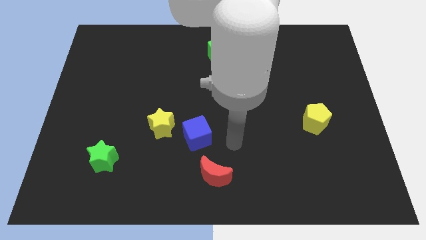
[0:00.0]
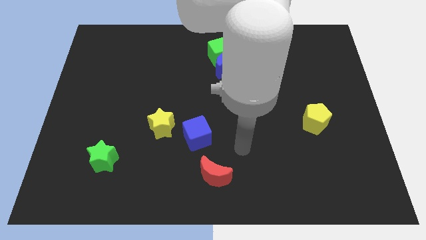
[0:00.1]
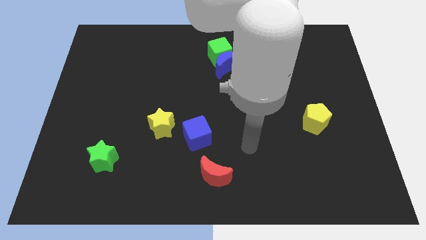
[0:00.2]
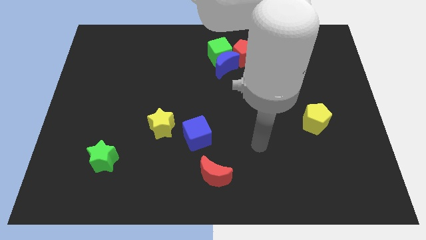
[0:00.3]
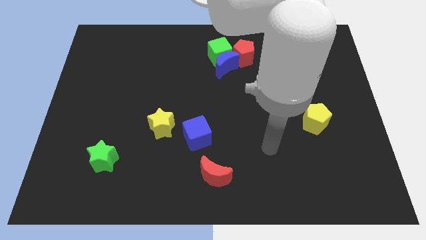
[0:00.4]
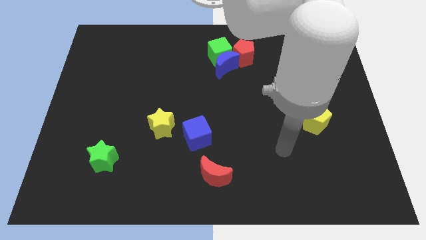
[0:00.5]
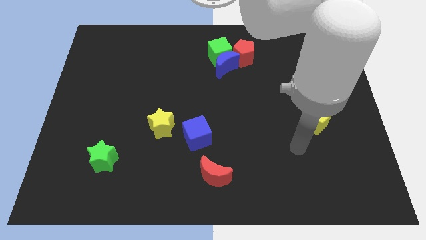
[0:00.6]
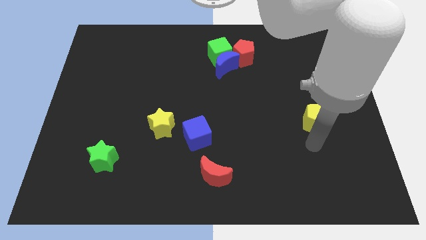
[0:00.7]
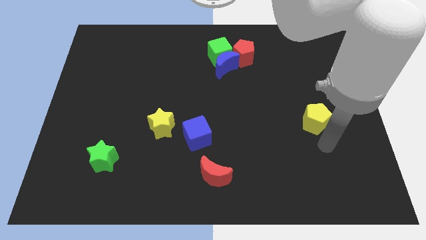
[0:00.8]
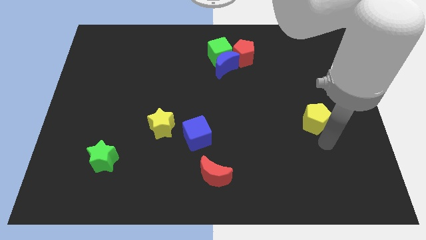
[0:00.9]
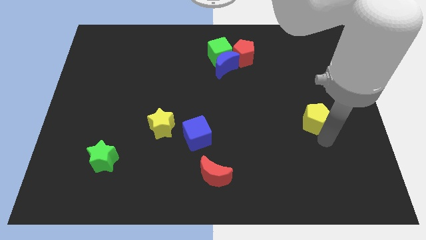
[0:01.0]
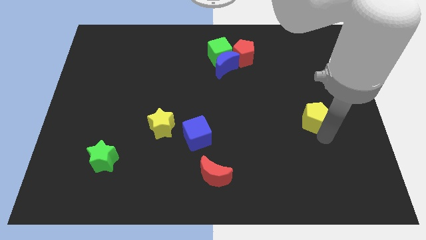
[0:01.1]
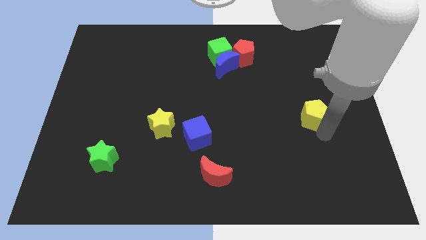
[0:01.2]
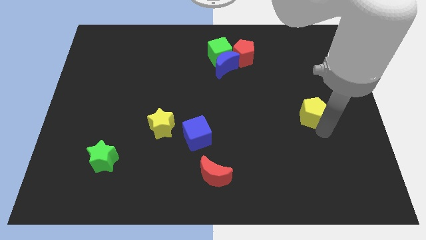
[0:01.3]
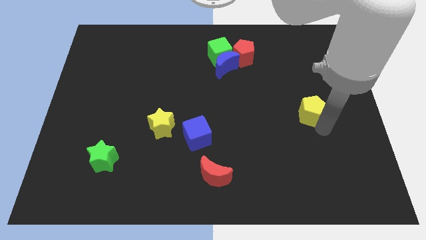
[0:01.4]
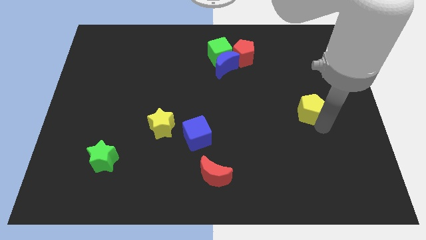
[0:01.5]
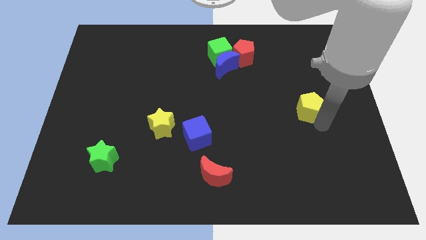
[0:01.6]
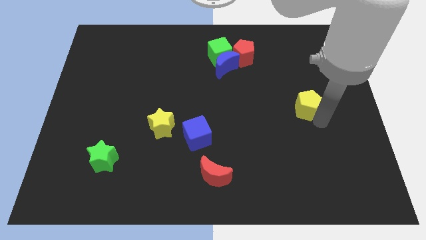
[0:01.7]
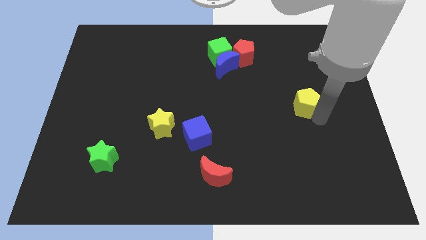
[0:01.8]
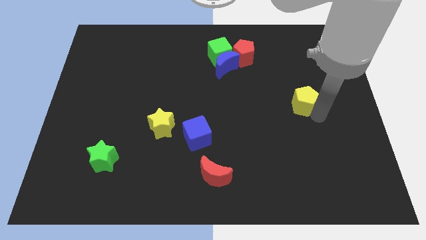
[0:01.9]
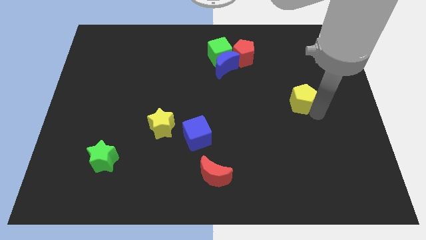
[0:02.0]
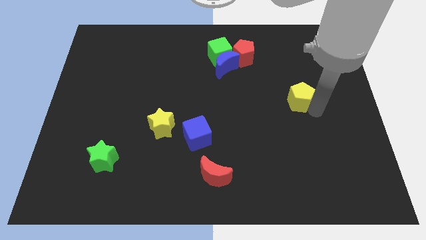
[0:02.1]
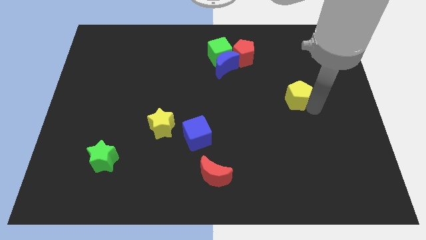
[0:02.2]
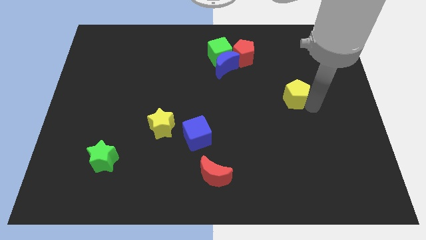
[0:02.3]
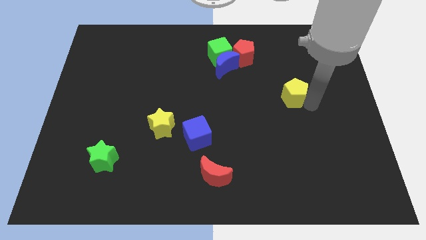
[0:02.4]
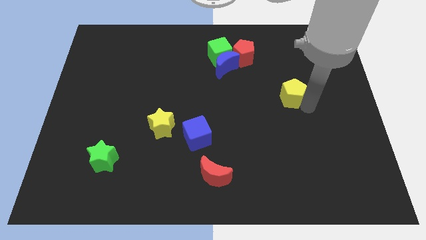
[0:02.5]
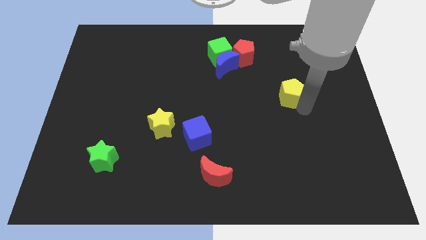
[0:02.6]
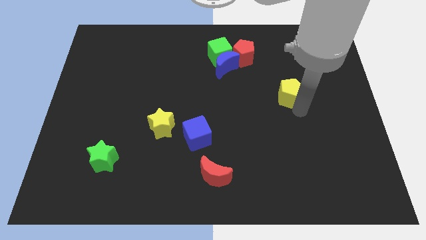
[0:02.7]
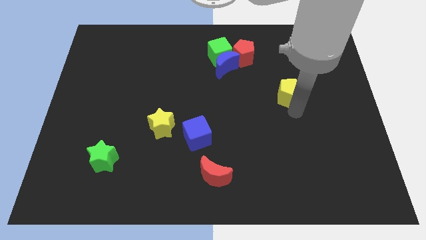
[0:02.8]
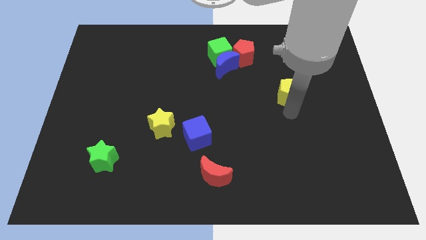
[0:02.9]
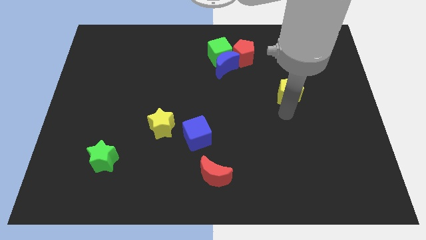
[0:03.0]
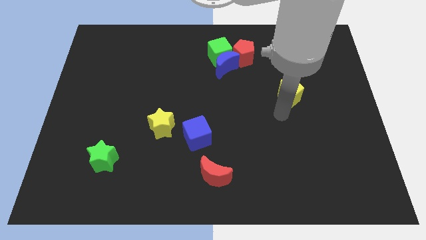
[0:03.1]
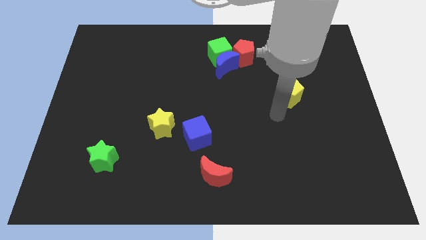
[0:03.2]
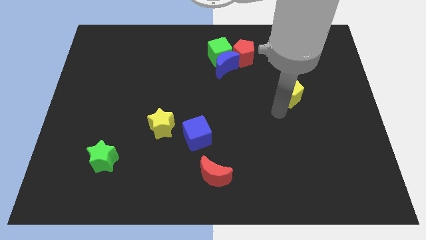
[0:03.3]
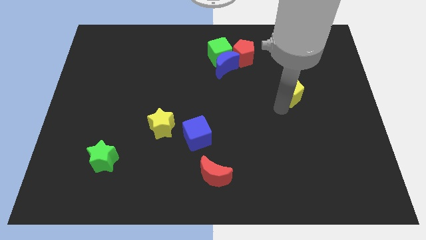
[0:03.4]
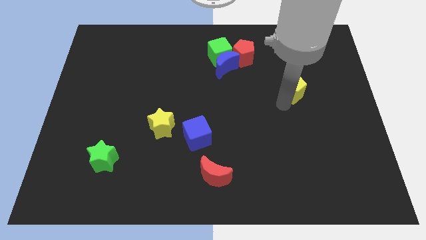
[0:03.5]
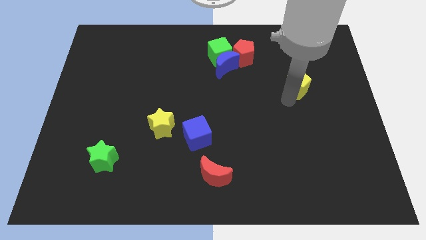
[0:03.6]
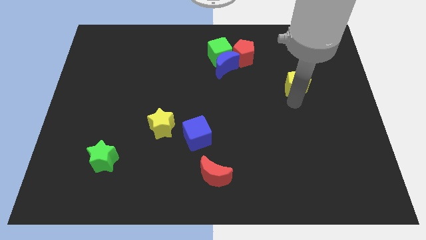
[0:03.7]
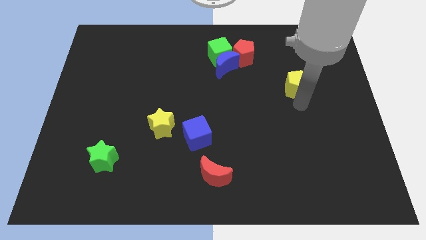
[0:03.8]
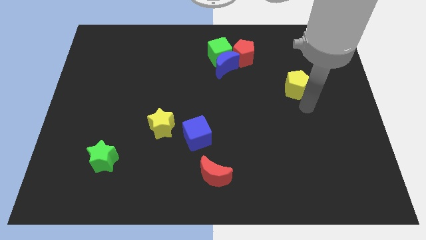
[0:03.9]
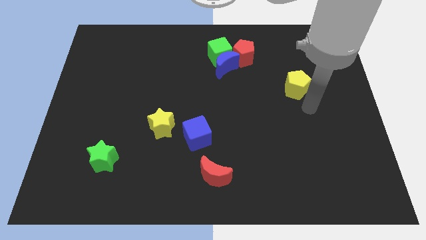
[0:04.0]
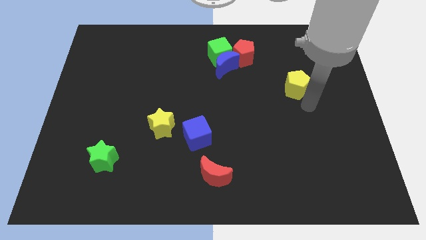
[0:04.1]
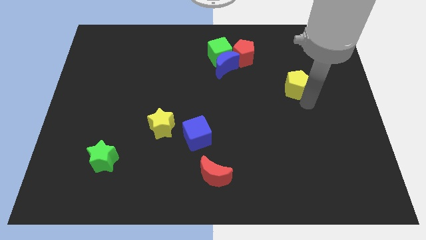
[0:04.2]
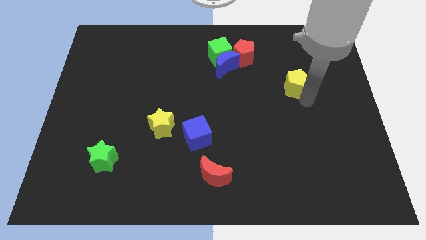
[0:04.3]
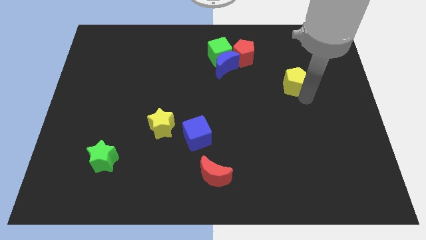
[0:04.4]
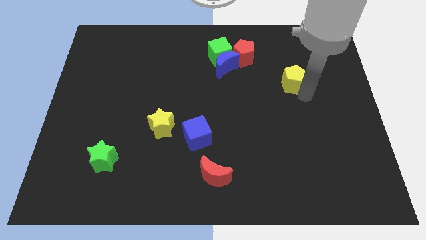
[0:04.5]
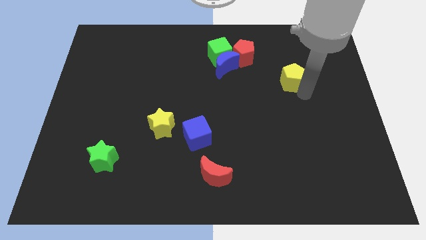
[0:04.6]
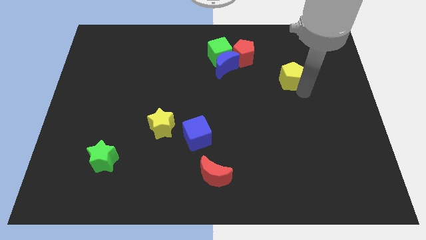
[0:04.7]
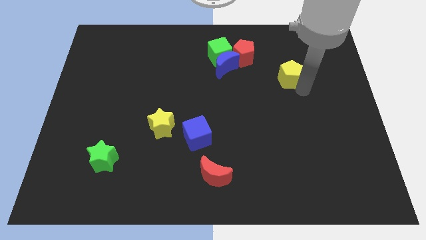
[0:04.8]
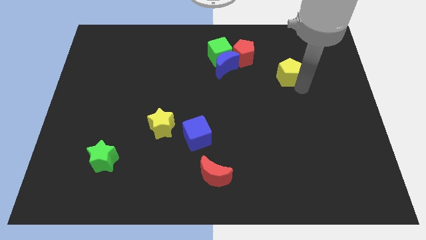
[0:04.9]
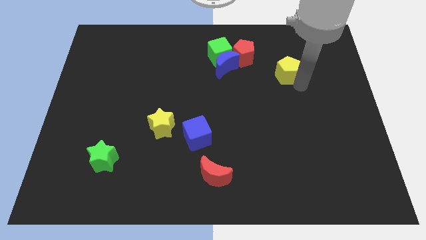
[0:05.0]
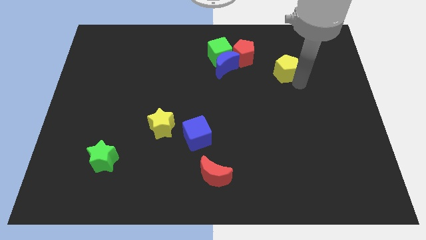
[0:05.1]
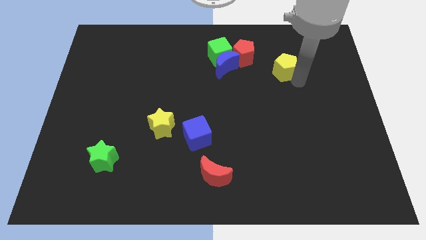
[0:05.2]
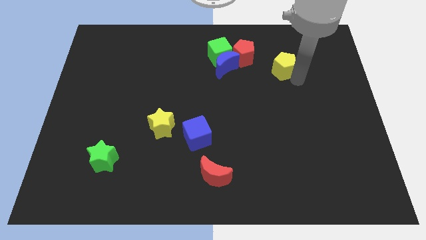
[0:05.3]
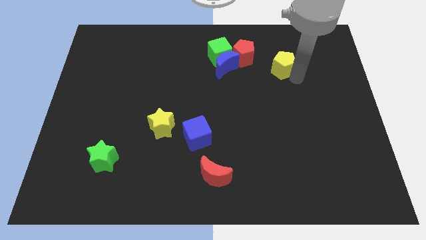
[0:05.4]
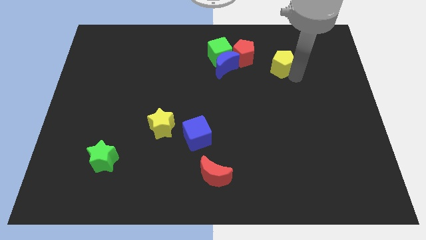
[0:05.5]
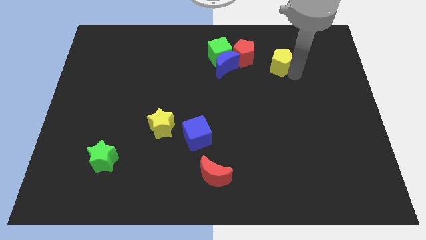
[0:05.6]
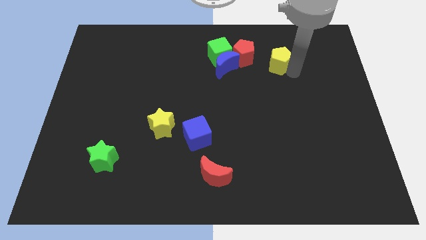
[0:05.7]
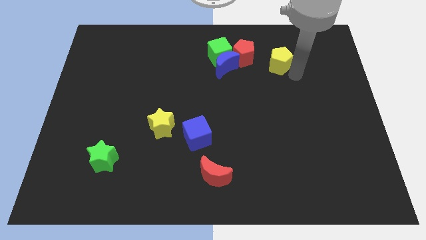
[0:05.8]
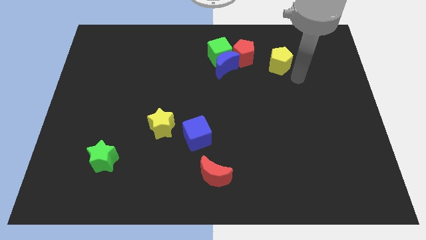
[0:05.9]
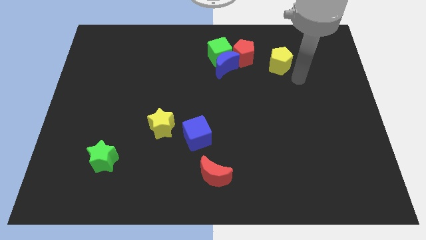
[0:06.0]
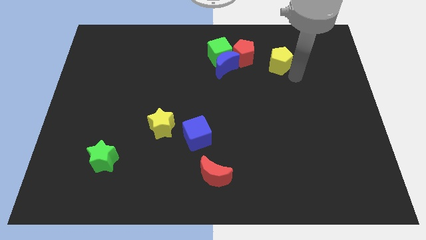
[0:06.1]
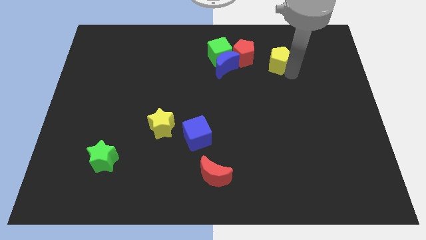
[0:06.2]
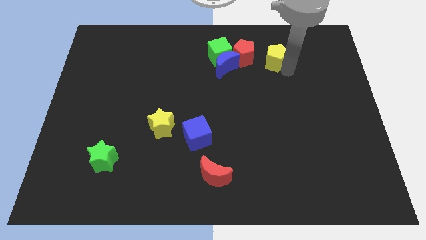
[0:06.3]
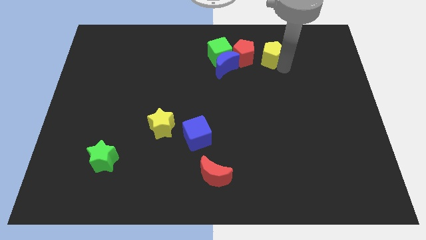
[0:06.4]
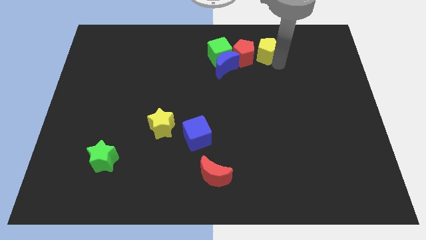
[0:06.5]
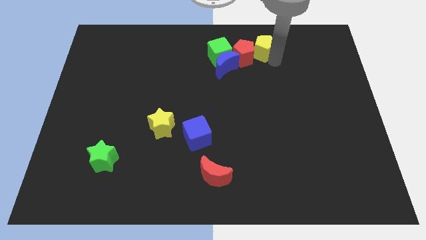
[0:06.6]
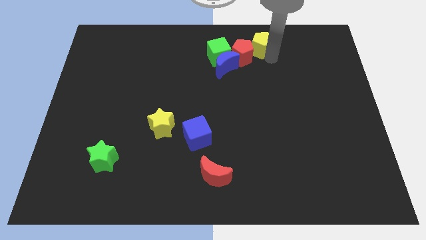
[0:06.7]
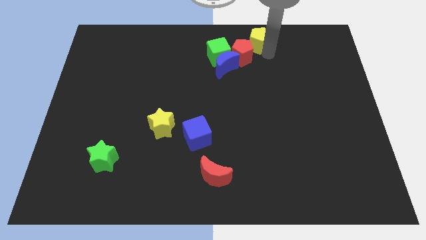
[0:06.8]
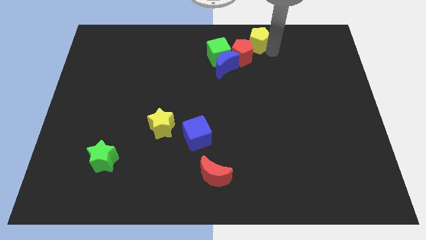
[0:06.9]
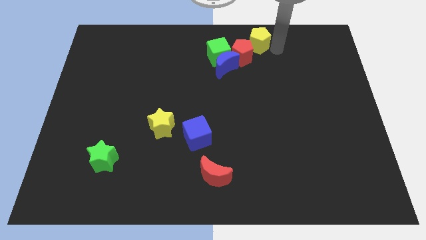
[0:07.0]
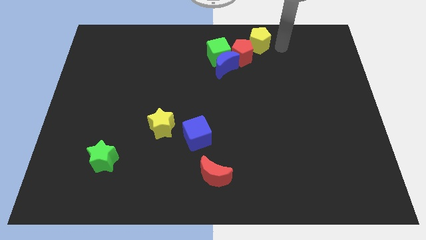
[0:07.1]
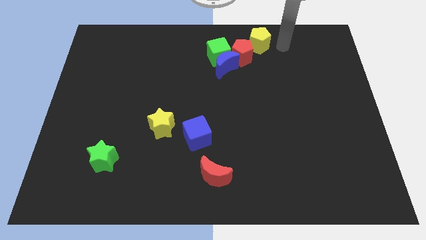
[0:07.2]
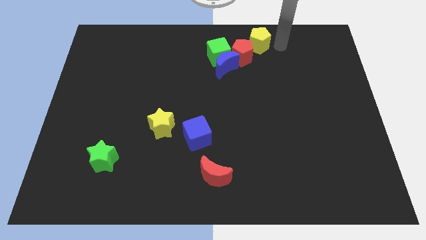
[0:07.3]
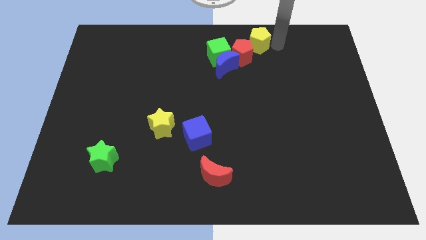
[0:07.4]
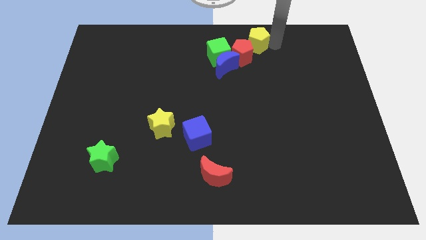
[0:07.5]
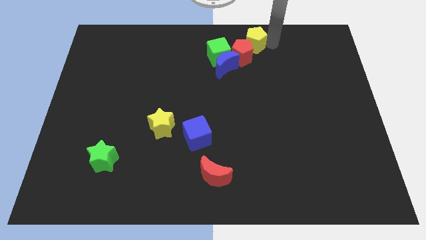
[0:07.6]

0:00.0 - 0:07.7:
push the yellow pentagon to the towards your base
